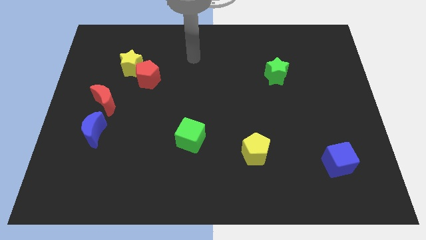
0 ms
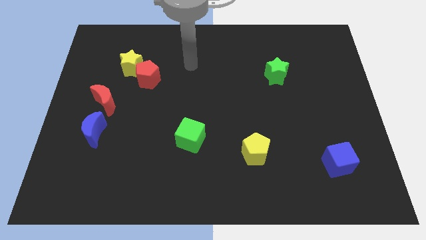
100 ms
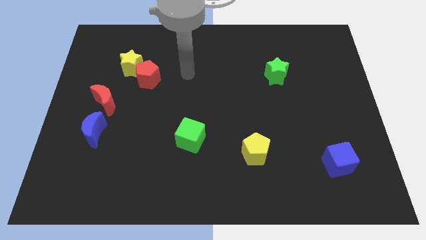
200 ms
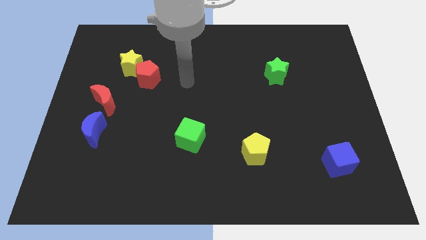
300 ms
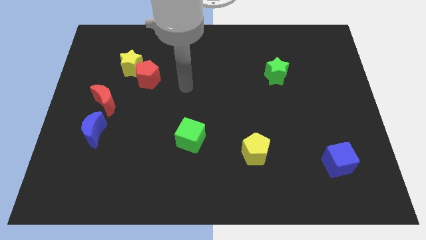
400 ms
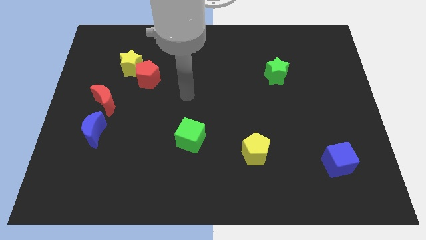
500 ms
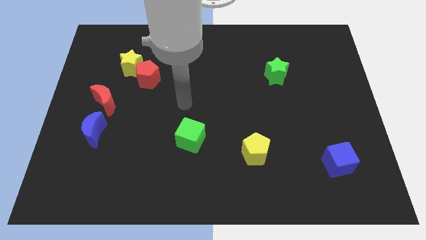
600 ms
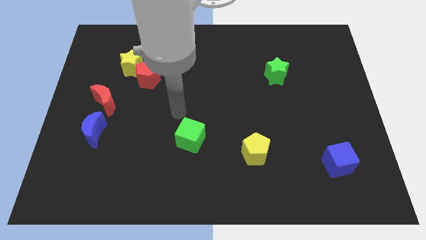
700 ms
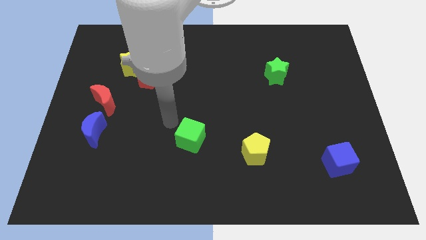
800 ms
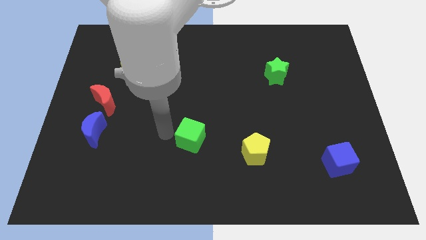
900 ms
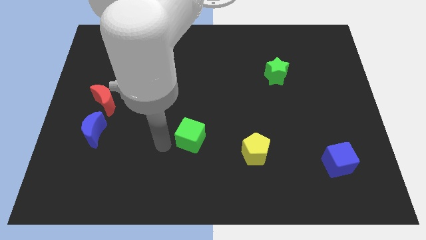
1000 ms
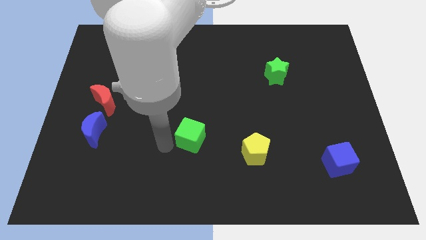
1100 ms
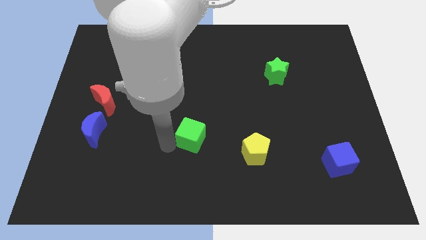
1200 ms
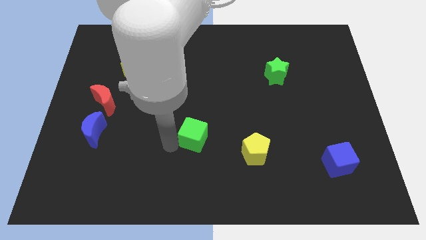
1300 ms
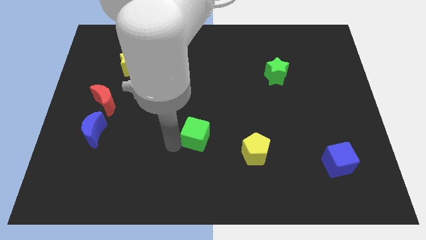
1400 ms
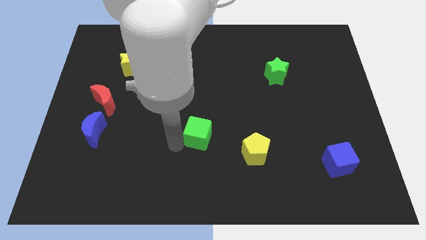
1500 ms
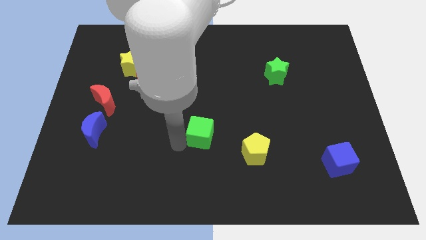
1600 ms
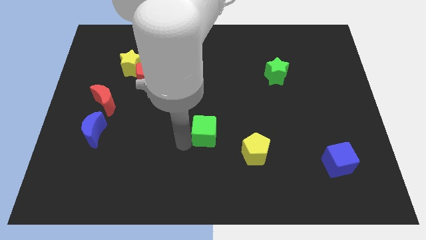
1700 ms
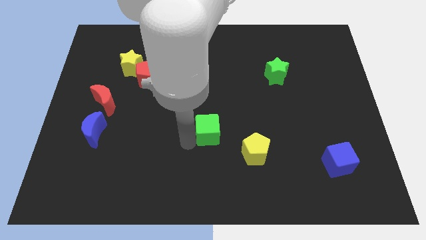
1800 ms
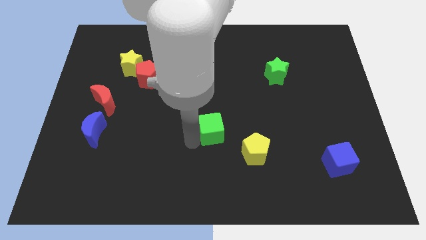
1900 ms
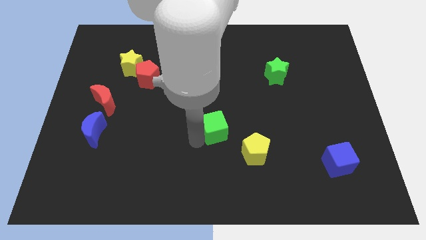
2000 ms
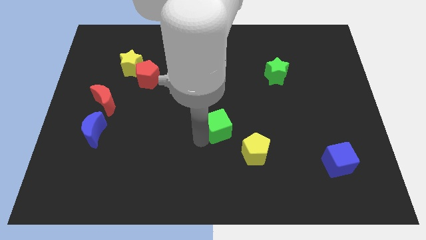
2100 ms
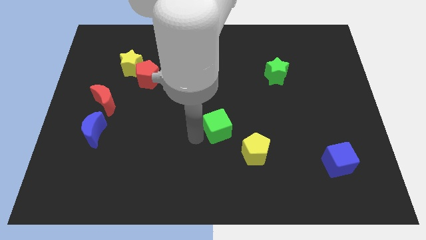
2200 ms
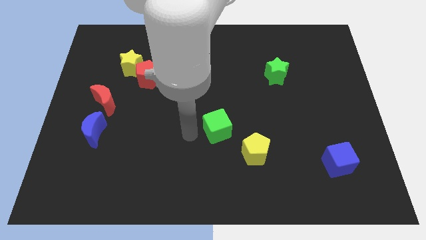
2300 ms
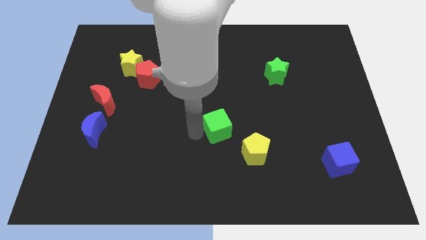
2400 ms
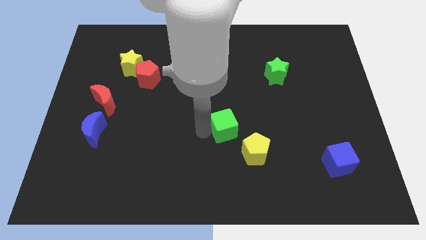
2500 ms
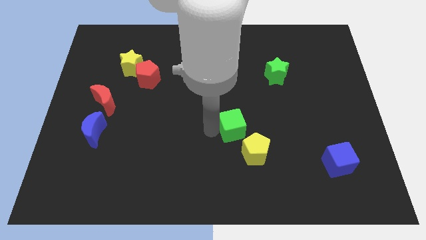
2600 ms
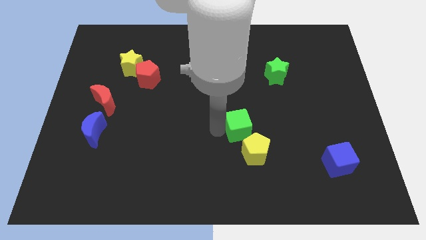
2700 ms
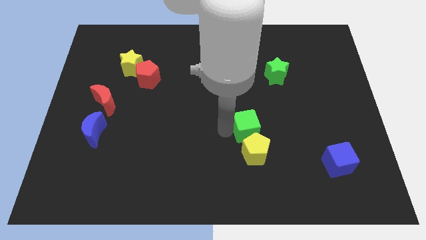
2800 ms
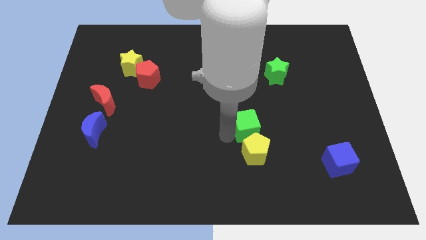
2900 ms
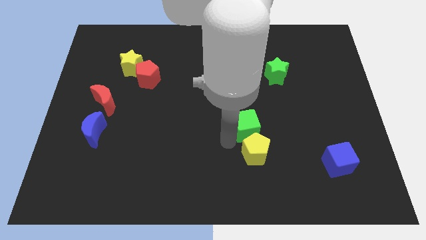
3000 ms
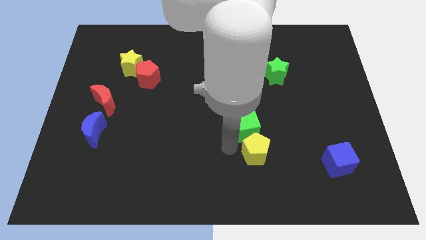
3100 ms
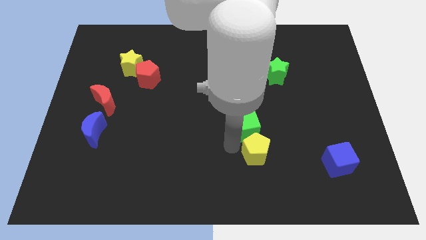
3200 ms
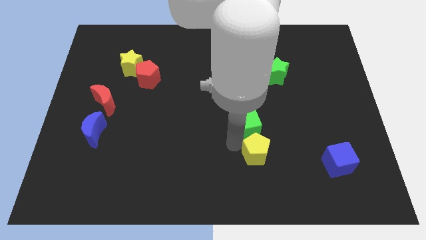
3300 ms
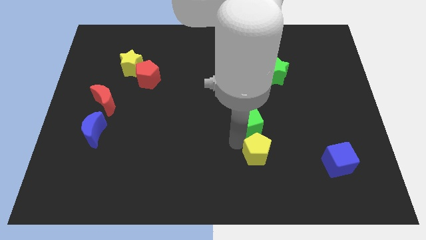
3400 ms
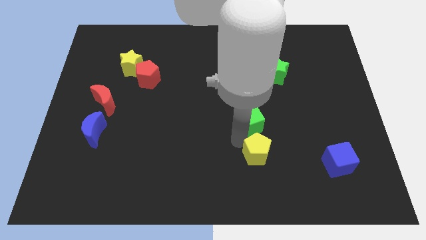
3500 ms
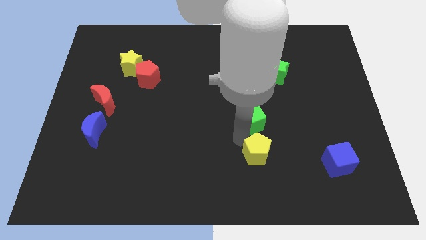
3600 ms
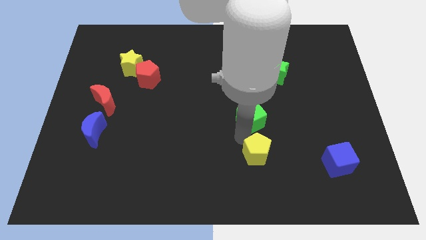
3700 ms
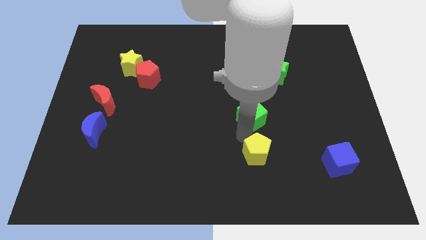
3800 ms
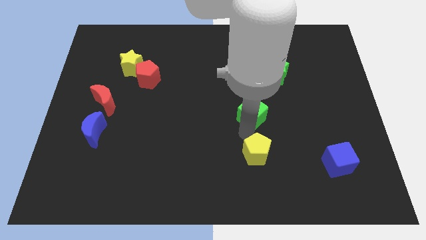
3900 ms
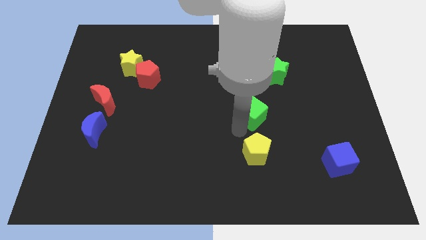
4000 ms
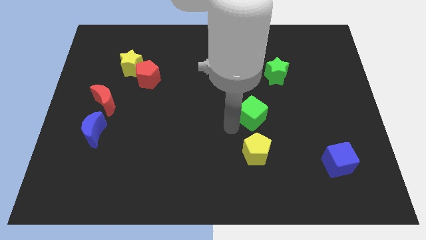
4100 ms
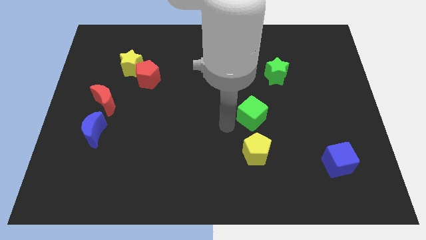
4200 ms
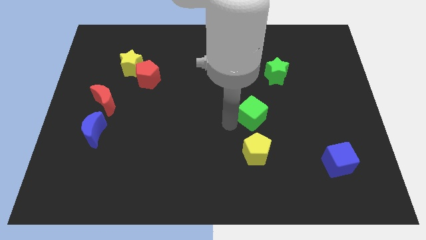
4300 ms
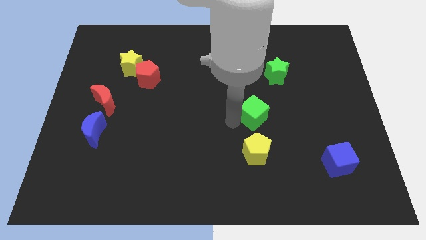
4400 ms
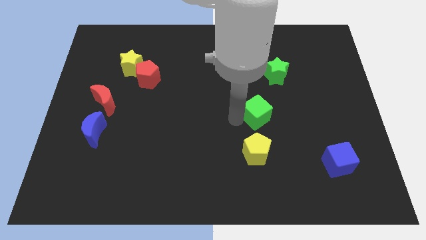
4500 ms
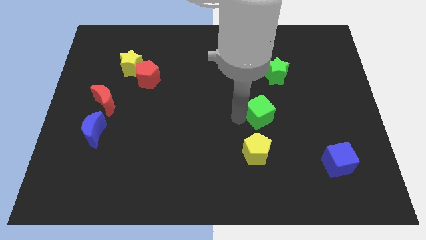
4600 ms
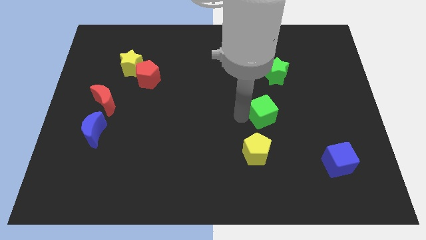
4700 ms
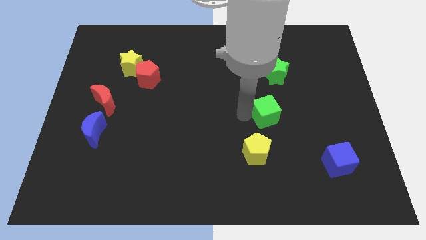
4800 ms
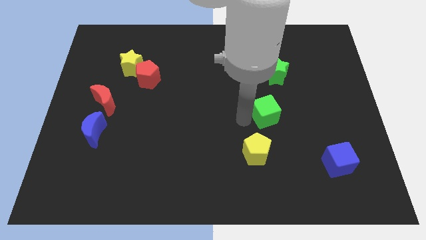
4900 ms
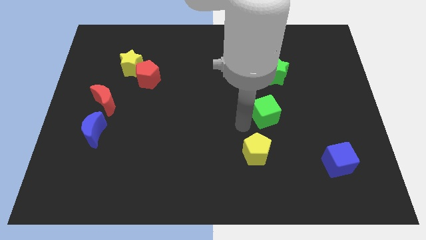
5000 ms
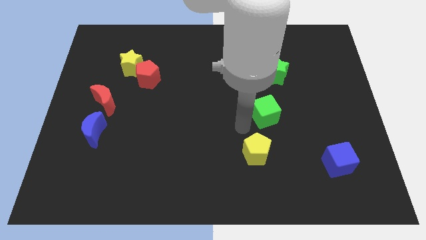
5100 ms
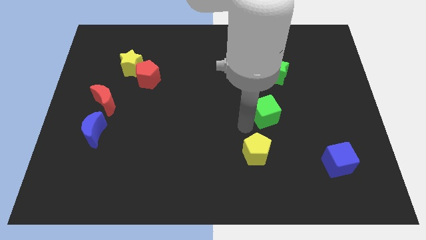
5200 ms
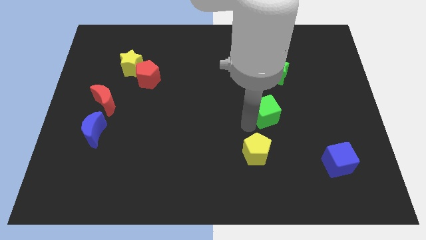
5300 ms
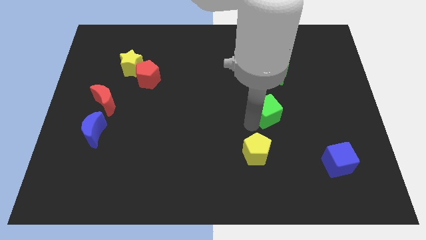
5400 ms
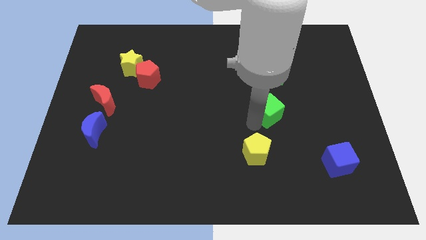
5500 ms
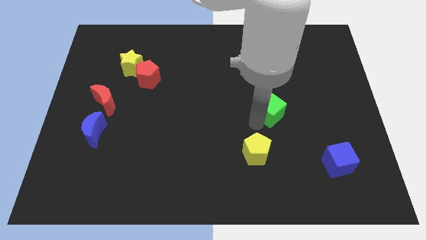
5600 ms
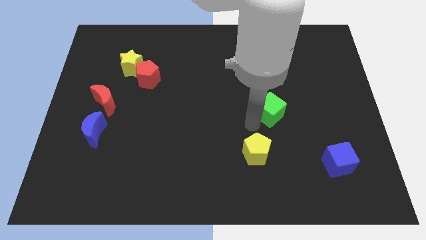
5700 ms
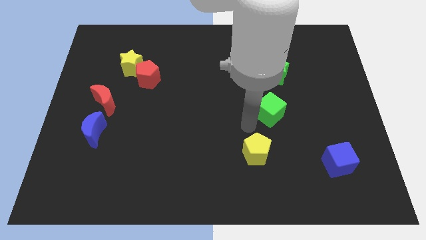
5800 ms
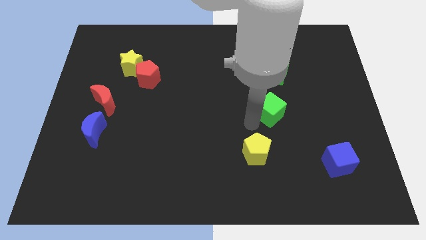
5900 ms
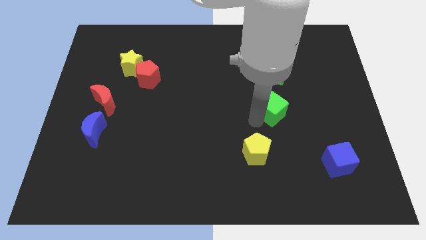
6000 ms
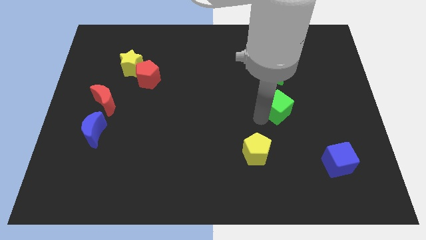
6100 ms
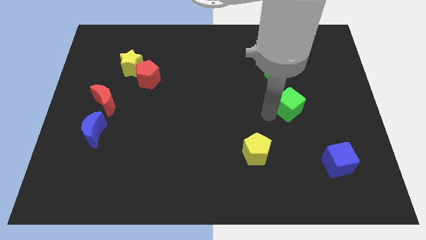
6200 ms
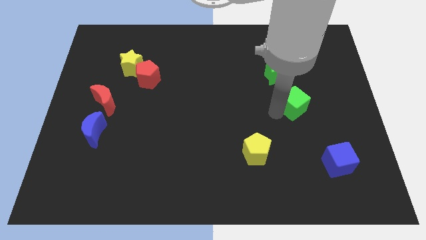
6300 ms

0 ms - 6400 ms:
push the green cube to the bottom right side of the green star

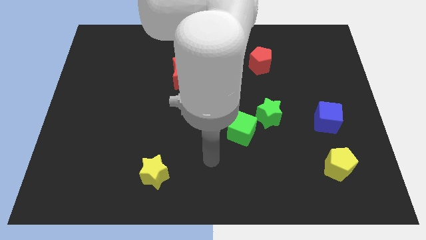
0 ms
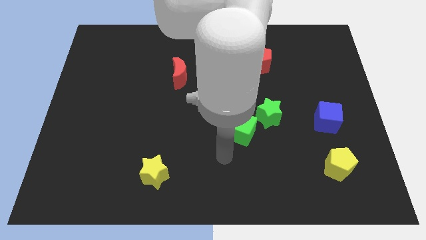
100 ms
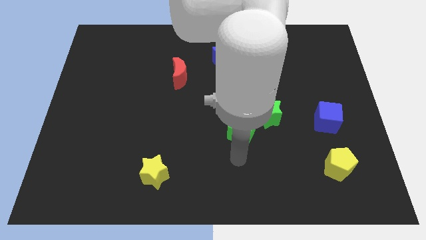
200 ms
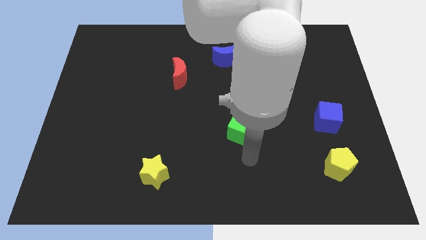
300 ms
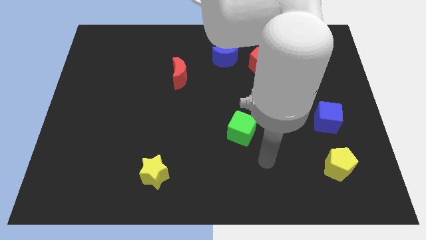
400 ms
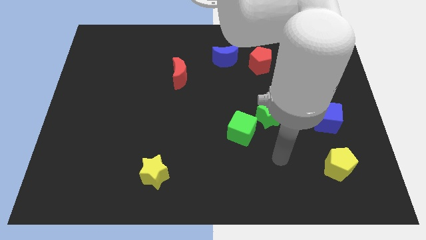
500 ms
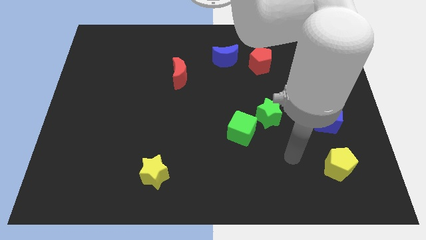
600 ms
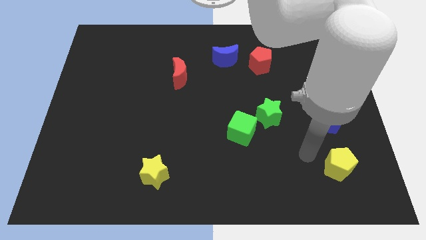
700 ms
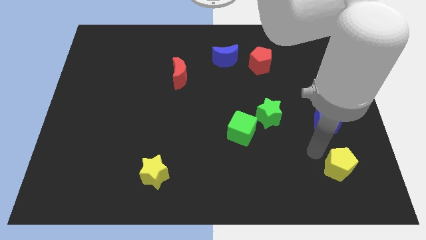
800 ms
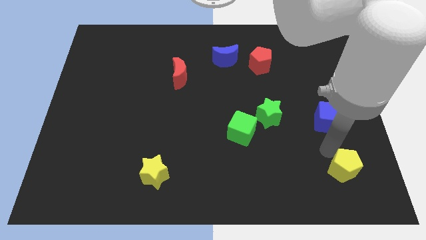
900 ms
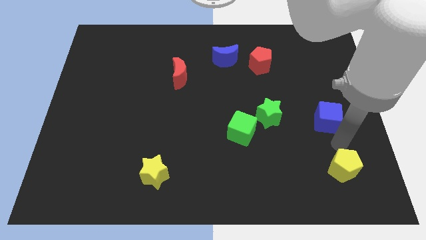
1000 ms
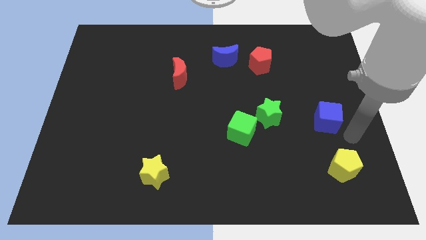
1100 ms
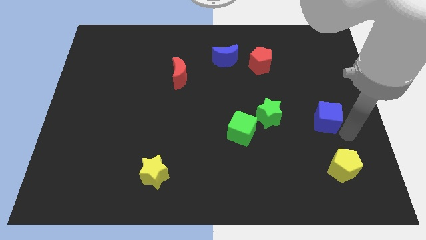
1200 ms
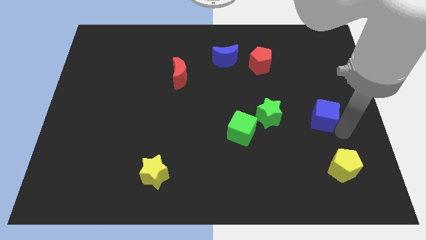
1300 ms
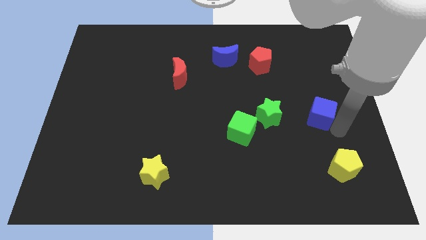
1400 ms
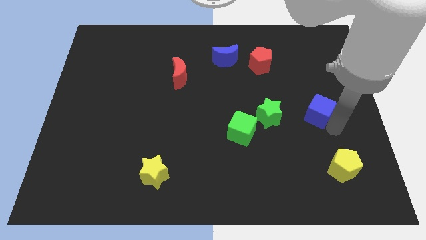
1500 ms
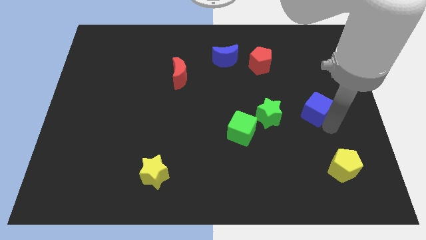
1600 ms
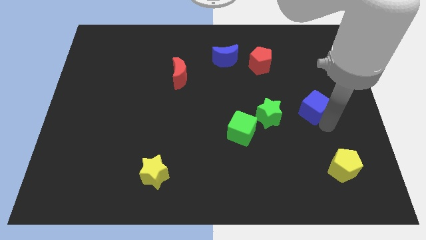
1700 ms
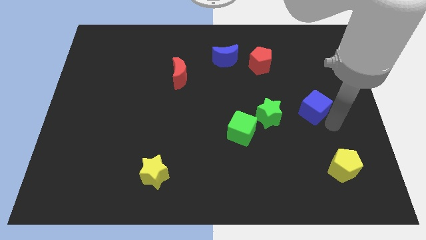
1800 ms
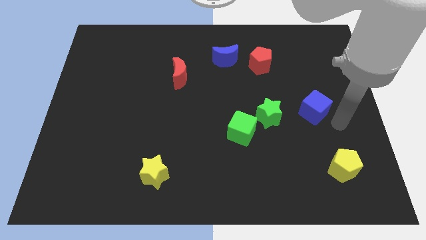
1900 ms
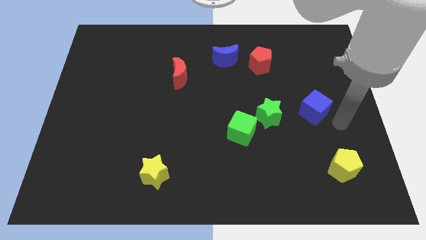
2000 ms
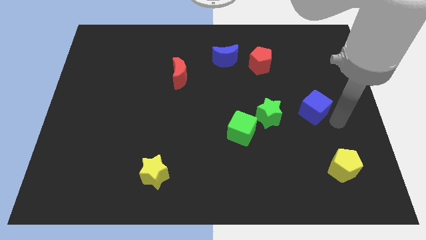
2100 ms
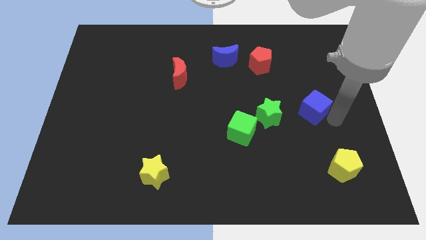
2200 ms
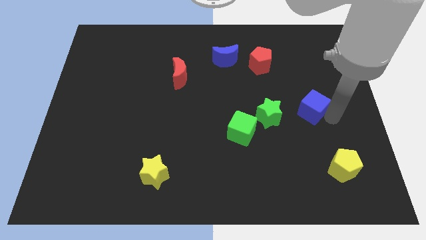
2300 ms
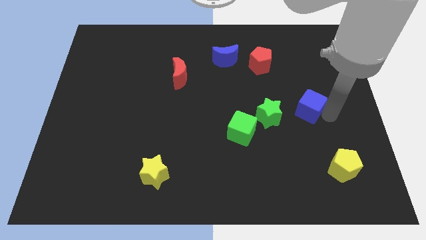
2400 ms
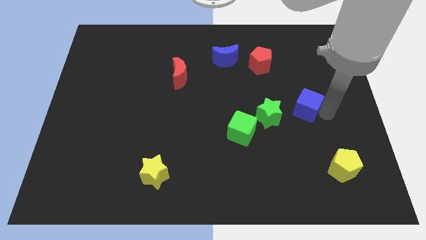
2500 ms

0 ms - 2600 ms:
push the blue cube to the top right of the green star
